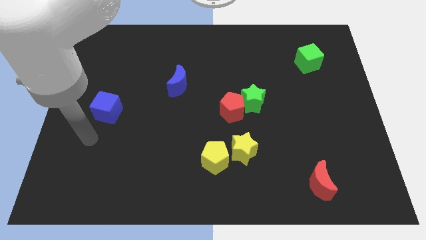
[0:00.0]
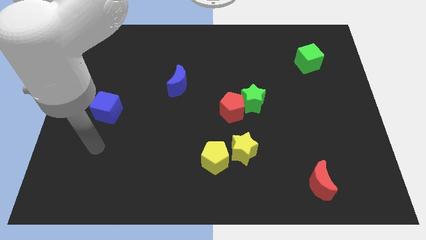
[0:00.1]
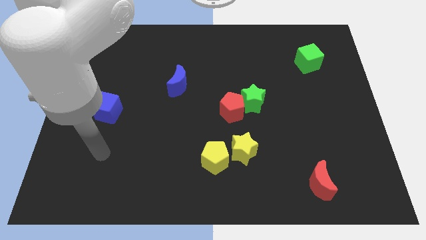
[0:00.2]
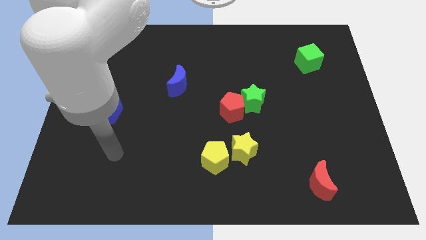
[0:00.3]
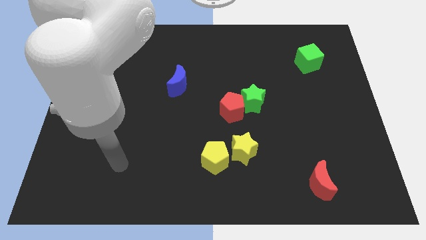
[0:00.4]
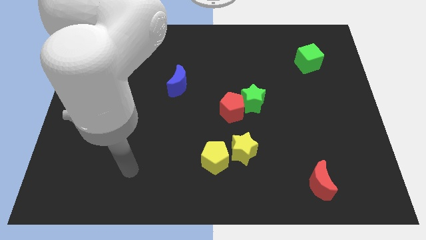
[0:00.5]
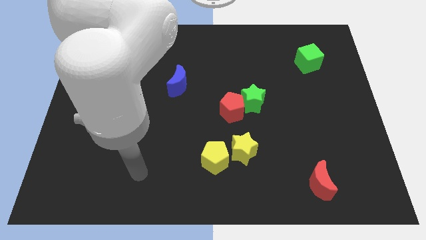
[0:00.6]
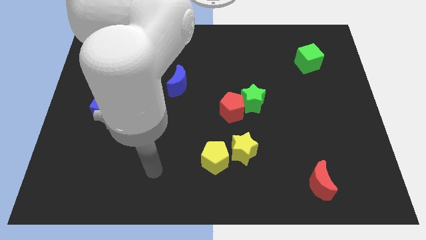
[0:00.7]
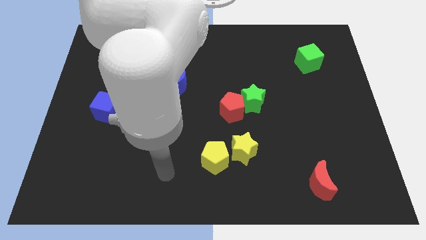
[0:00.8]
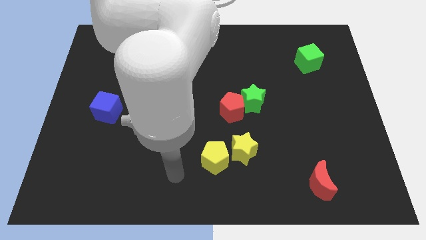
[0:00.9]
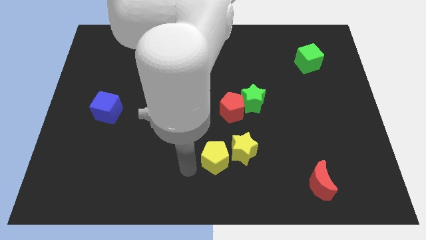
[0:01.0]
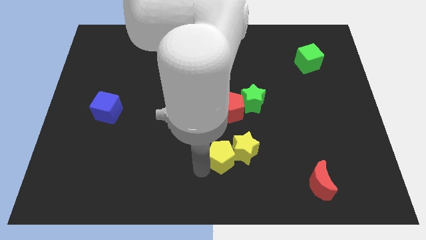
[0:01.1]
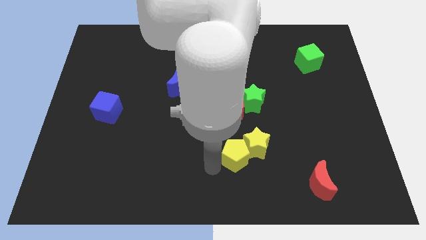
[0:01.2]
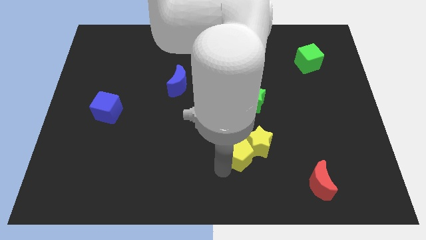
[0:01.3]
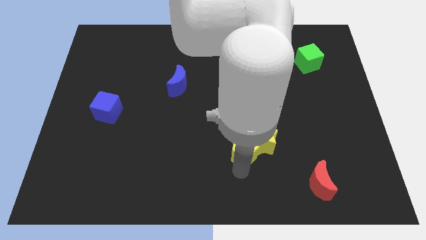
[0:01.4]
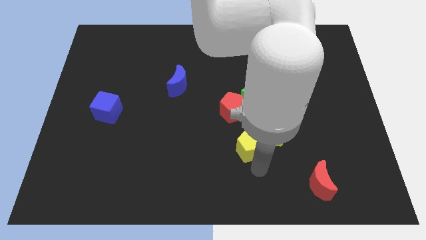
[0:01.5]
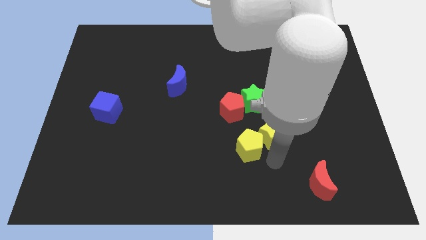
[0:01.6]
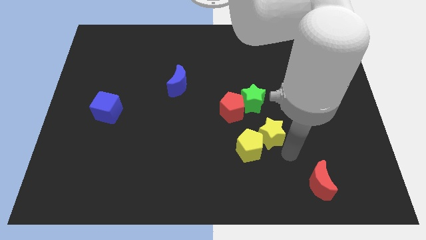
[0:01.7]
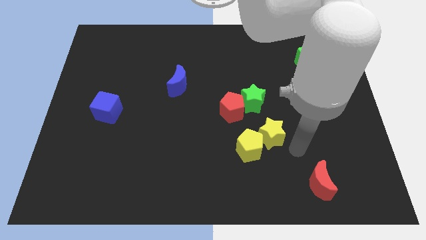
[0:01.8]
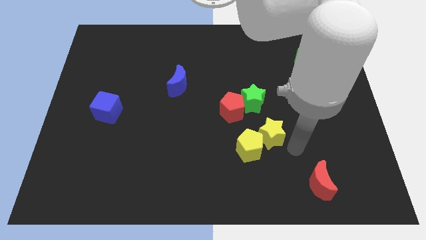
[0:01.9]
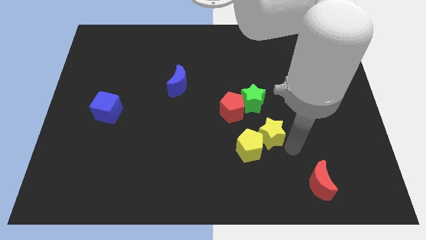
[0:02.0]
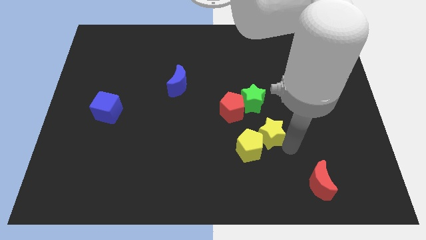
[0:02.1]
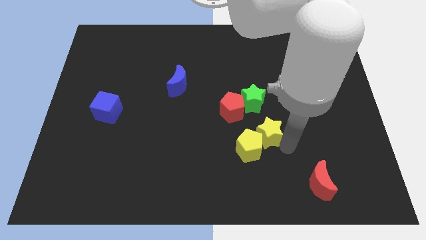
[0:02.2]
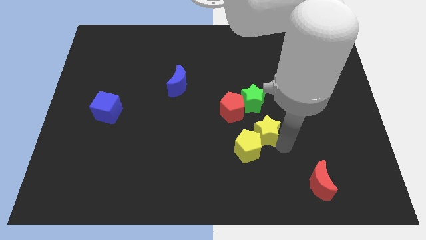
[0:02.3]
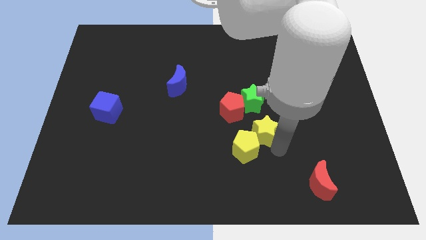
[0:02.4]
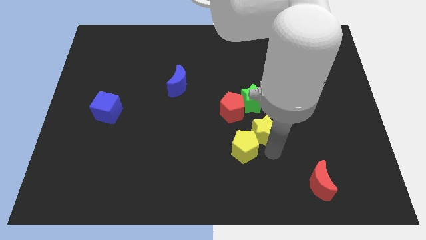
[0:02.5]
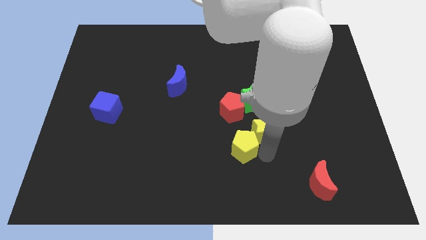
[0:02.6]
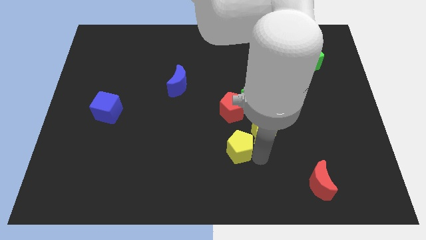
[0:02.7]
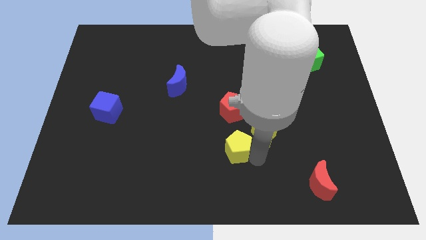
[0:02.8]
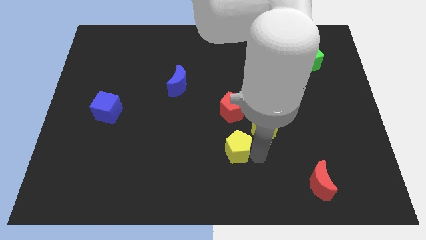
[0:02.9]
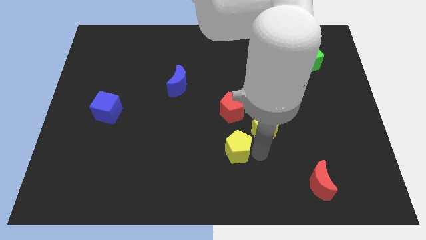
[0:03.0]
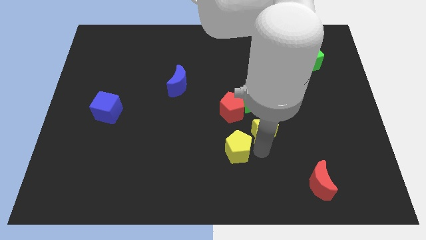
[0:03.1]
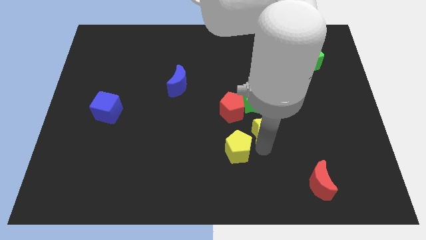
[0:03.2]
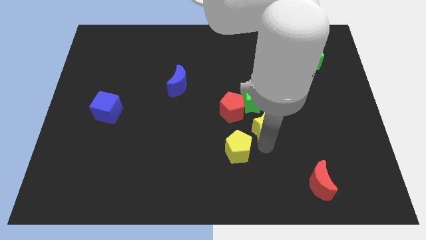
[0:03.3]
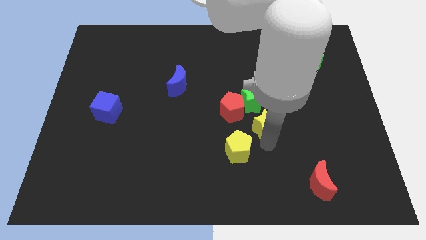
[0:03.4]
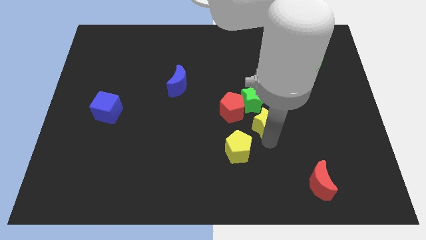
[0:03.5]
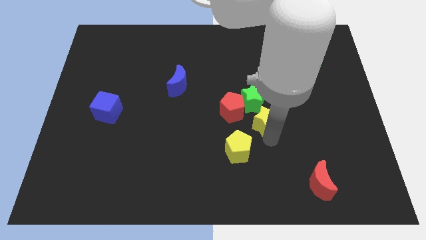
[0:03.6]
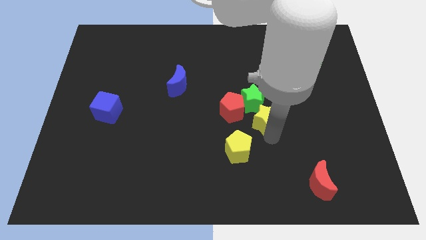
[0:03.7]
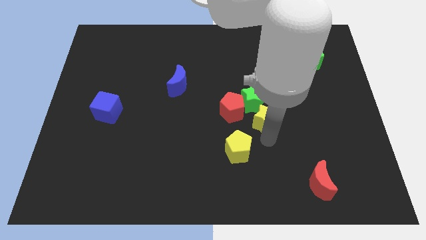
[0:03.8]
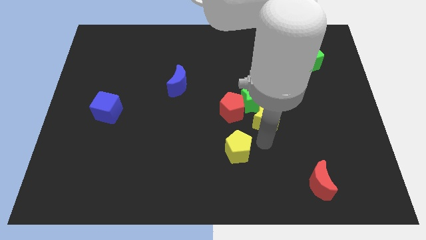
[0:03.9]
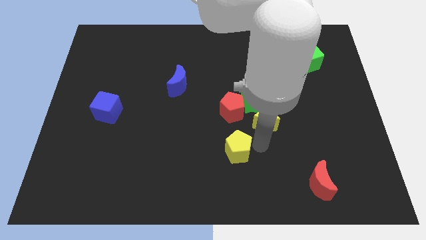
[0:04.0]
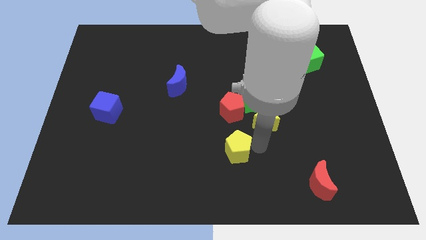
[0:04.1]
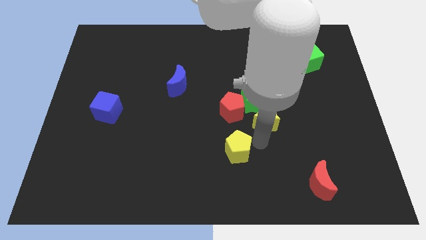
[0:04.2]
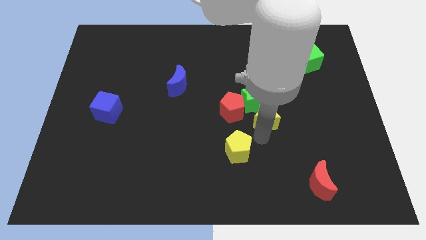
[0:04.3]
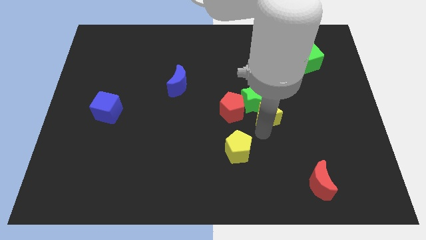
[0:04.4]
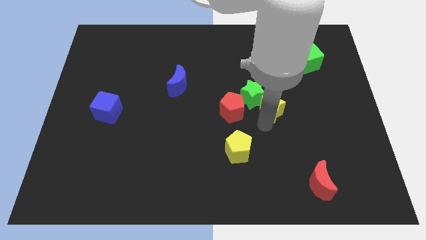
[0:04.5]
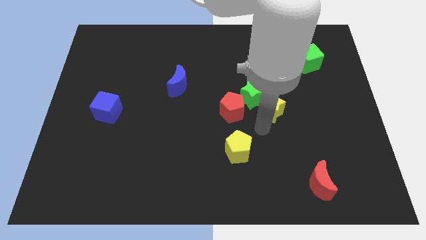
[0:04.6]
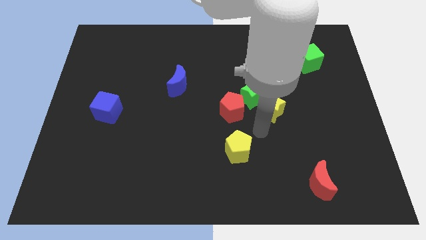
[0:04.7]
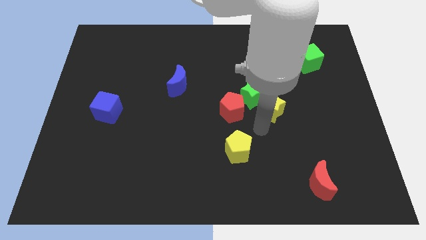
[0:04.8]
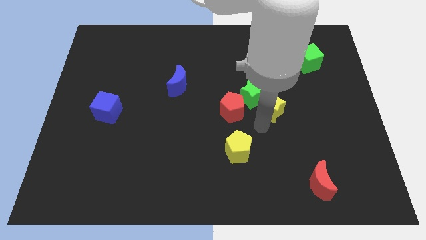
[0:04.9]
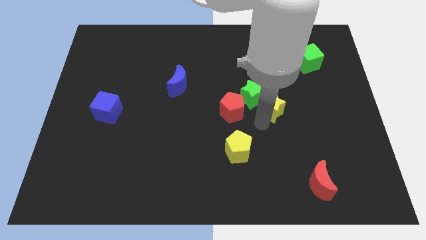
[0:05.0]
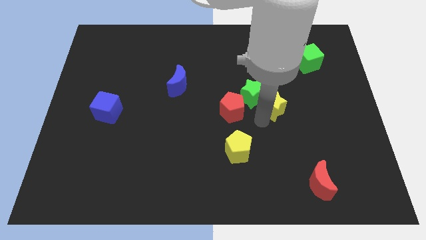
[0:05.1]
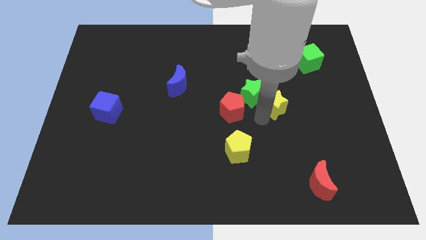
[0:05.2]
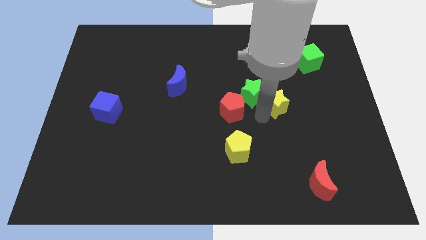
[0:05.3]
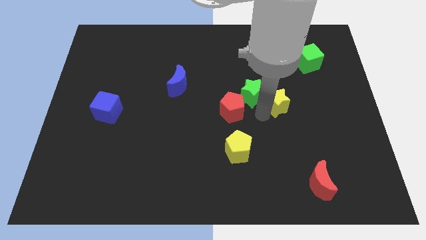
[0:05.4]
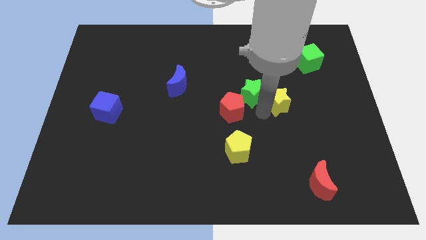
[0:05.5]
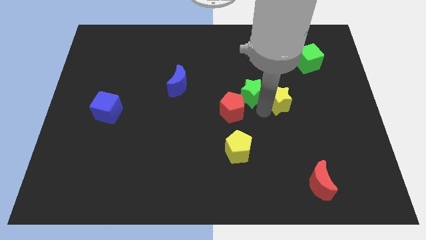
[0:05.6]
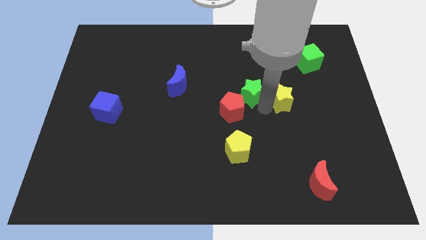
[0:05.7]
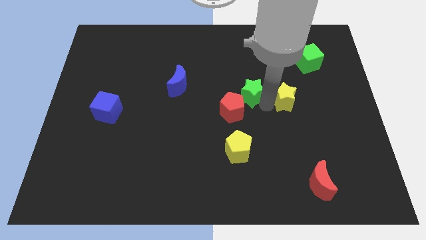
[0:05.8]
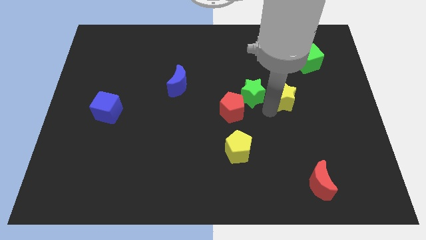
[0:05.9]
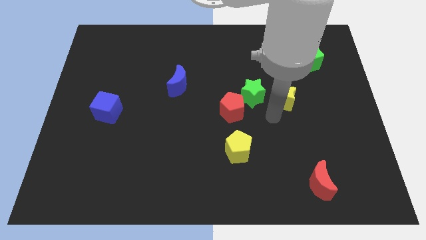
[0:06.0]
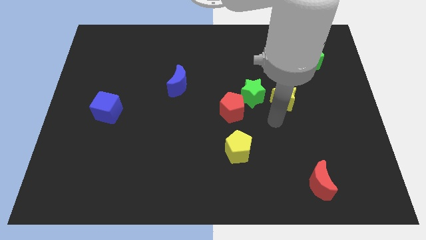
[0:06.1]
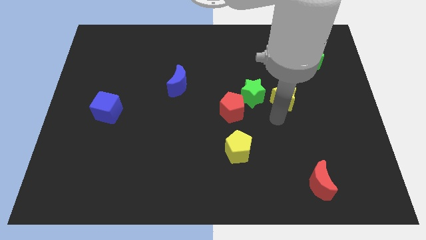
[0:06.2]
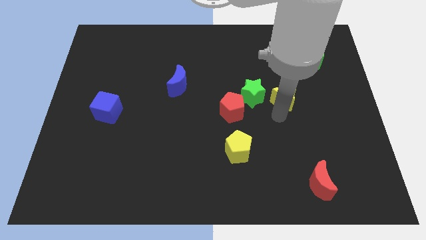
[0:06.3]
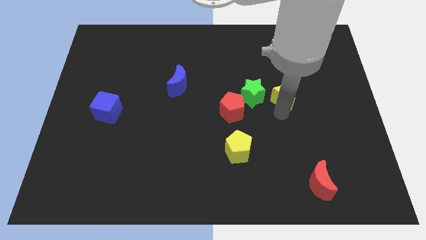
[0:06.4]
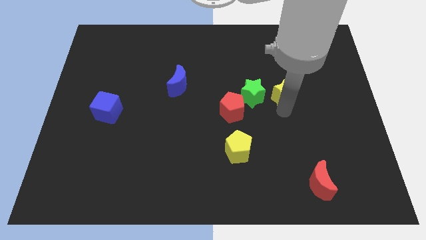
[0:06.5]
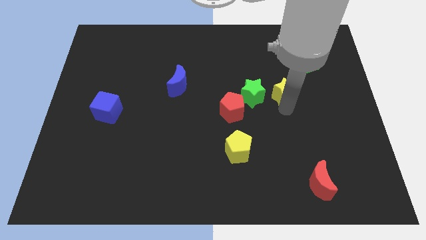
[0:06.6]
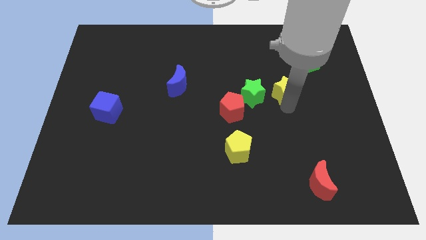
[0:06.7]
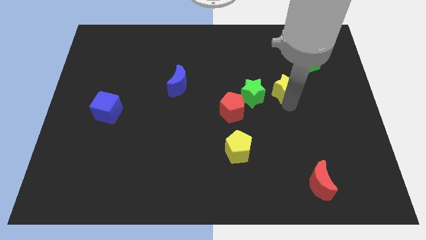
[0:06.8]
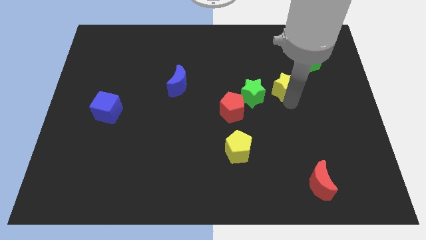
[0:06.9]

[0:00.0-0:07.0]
slide the yellow star to the bottom left of the green cube

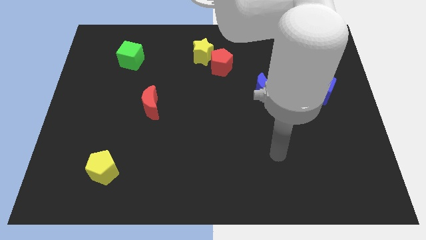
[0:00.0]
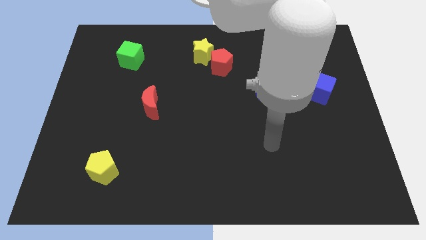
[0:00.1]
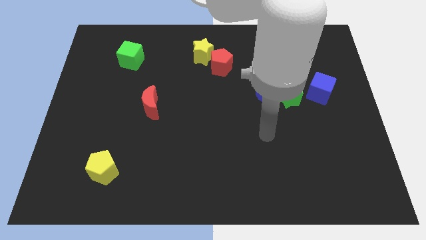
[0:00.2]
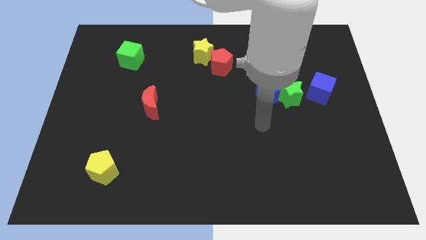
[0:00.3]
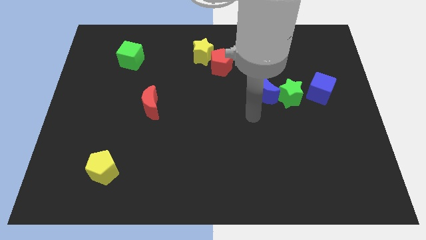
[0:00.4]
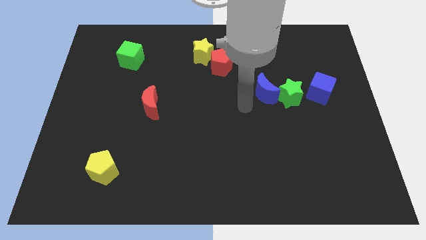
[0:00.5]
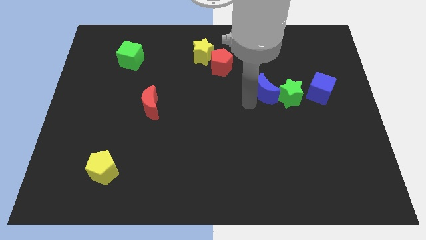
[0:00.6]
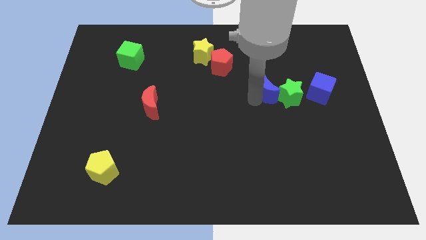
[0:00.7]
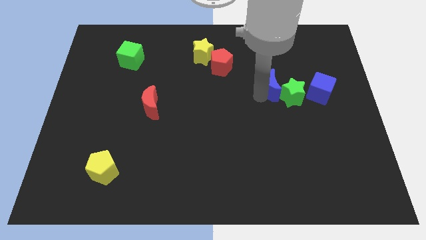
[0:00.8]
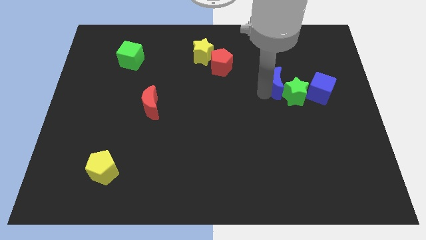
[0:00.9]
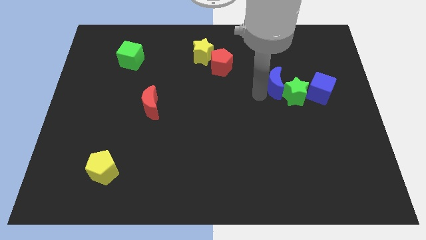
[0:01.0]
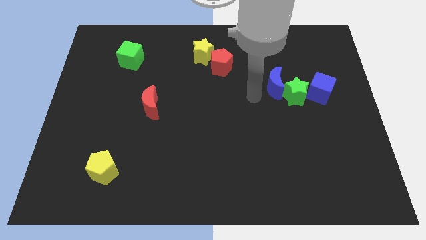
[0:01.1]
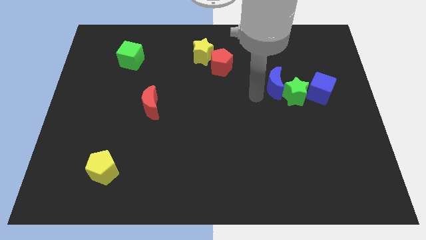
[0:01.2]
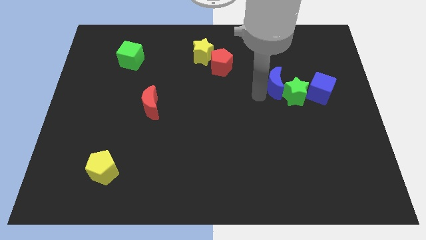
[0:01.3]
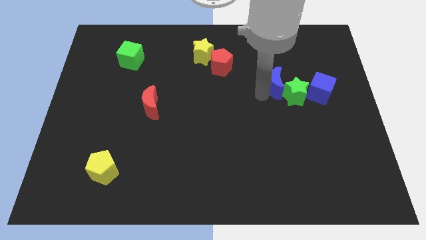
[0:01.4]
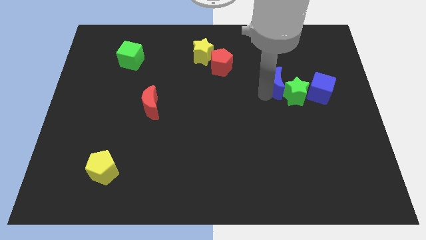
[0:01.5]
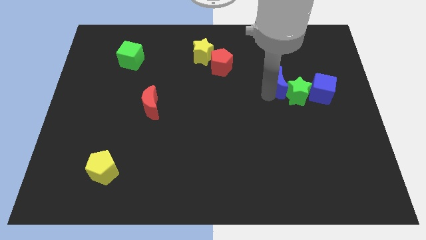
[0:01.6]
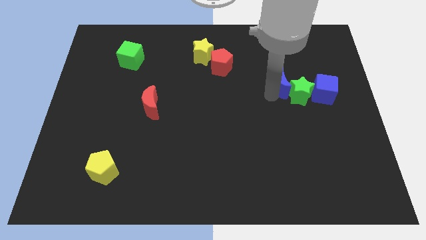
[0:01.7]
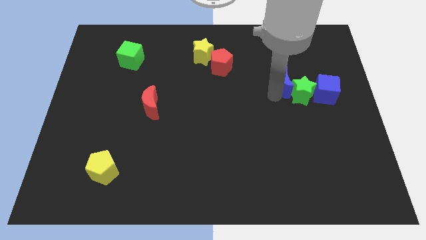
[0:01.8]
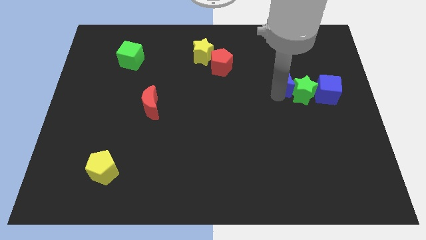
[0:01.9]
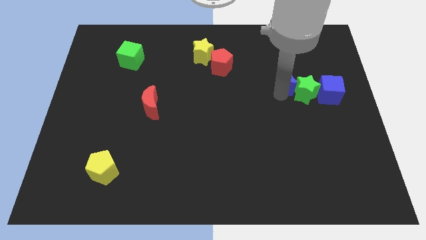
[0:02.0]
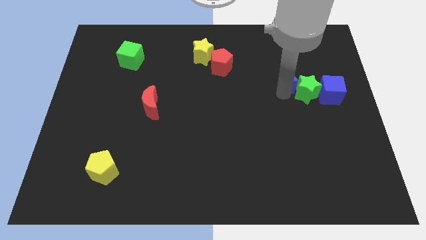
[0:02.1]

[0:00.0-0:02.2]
push the blue moon to the top left side of the blue cube
